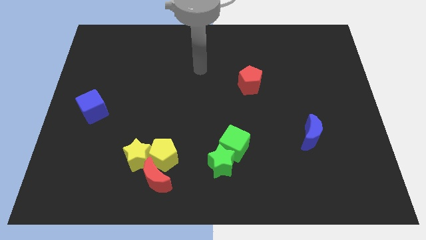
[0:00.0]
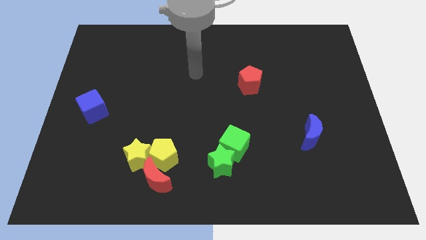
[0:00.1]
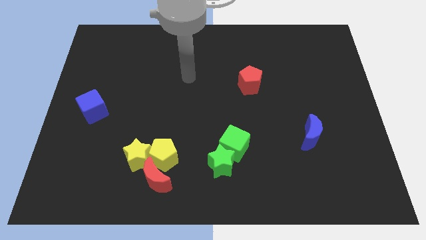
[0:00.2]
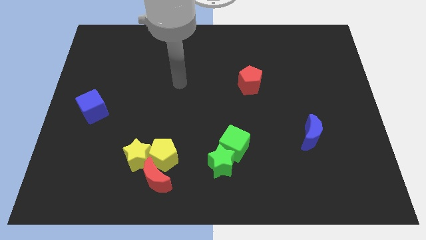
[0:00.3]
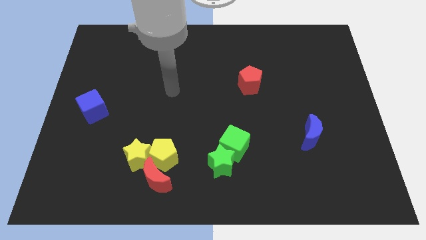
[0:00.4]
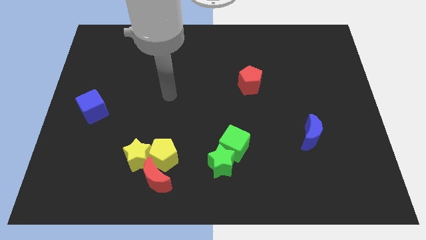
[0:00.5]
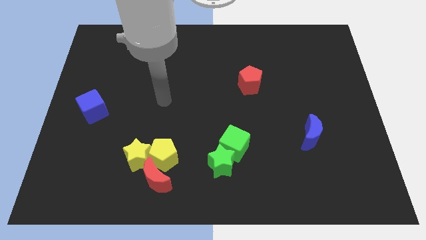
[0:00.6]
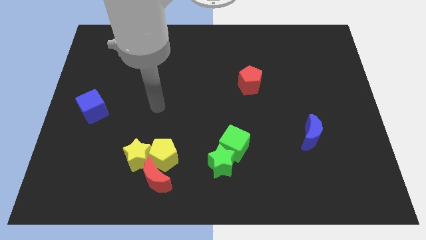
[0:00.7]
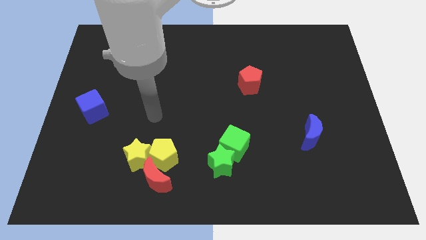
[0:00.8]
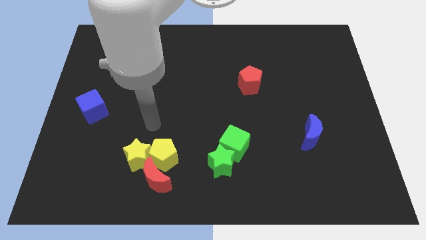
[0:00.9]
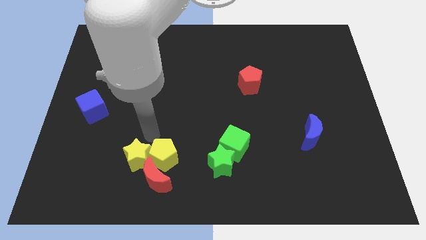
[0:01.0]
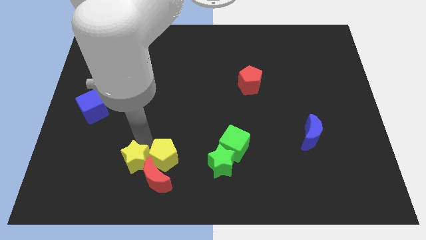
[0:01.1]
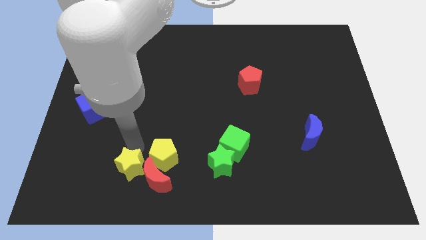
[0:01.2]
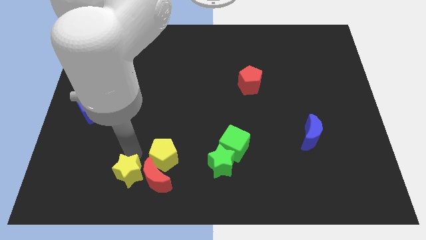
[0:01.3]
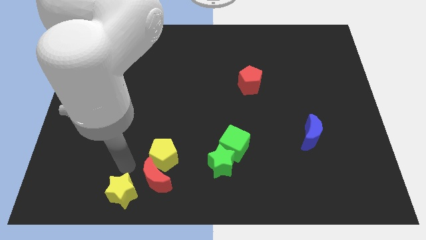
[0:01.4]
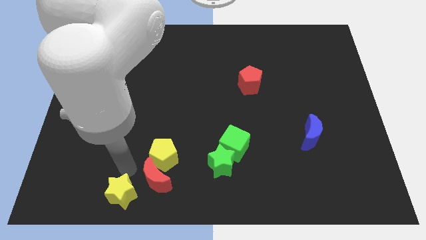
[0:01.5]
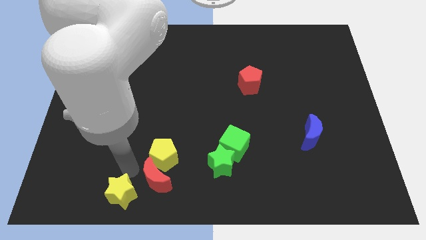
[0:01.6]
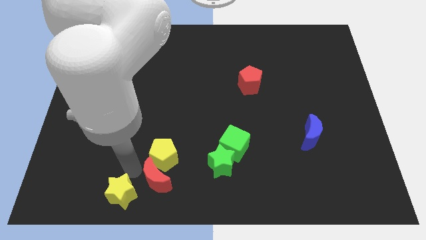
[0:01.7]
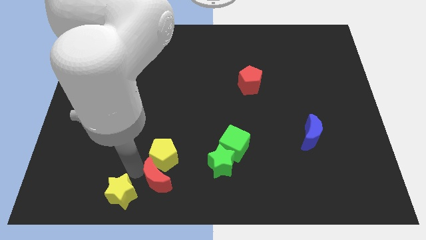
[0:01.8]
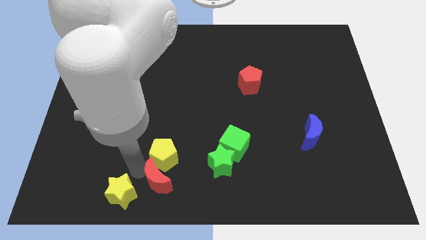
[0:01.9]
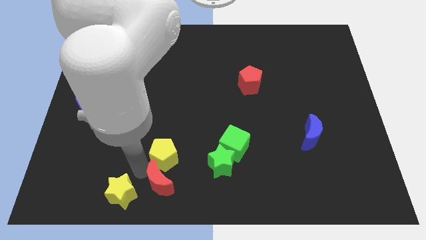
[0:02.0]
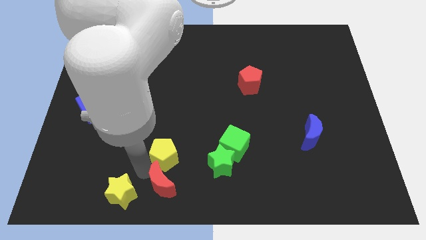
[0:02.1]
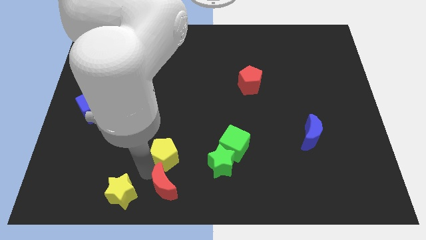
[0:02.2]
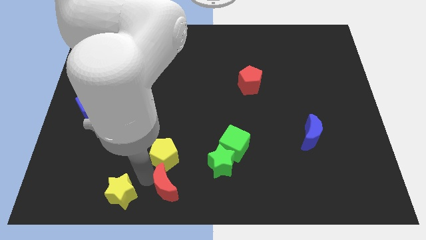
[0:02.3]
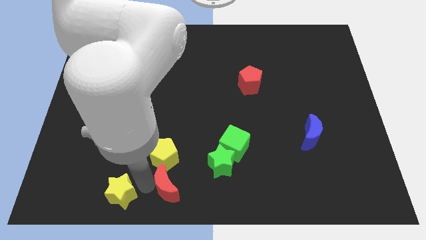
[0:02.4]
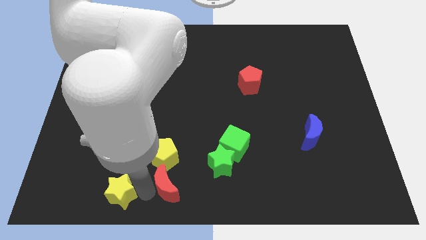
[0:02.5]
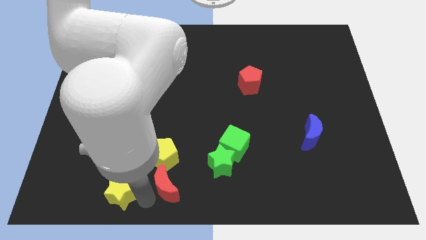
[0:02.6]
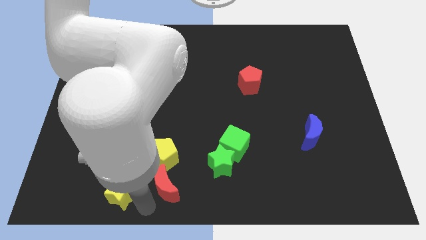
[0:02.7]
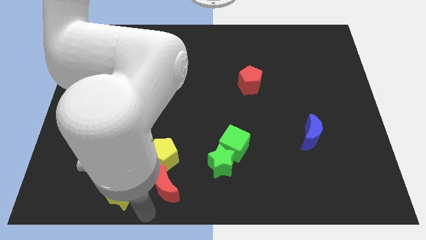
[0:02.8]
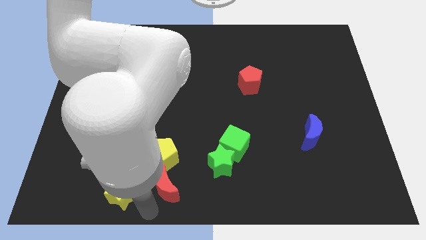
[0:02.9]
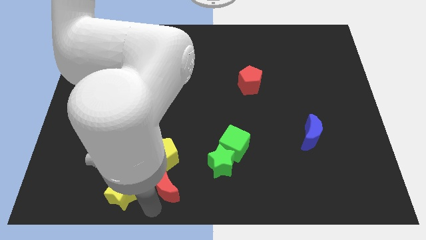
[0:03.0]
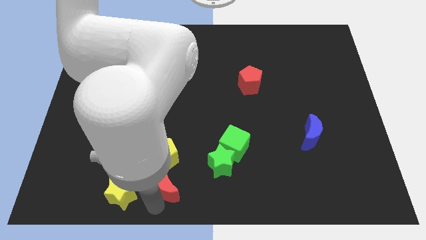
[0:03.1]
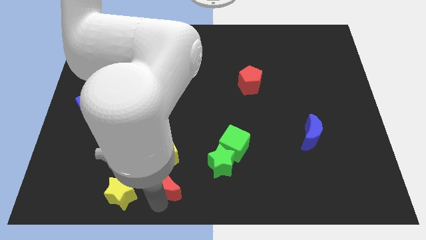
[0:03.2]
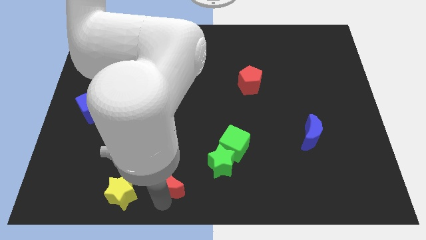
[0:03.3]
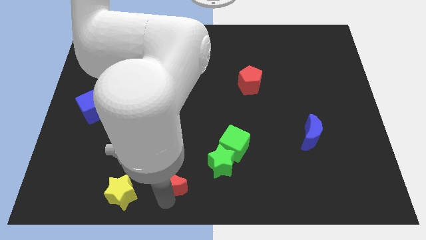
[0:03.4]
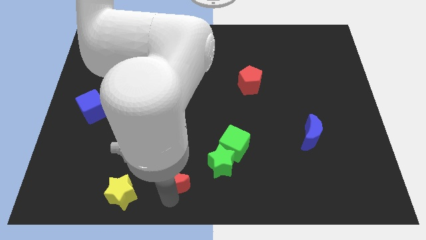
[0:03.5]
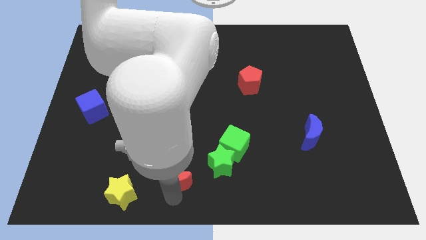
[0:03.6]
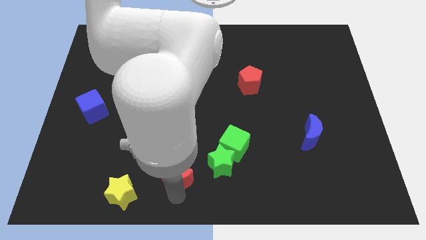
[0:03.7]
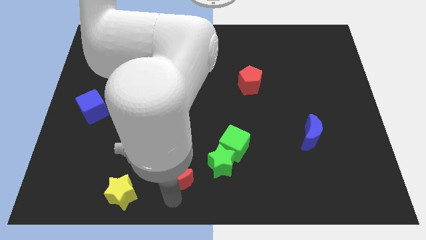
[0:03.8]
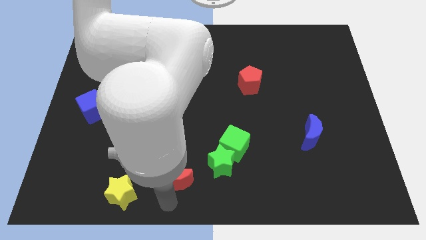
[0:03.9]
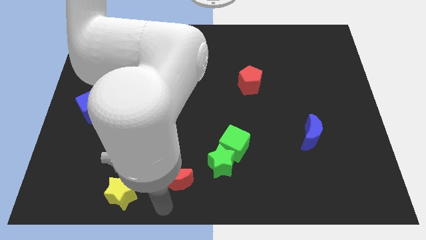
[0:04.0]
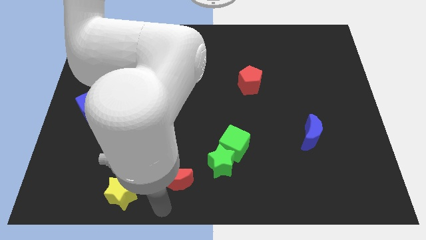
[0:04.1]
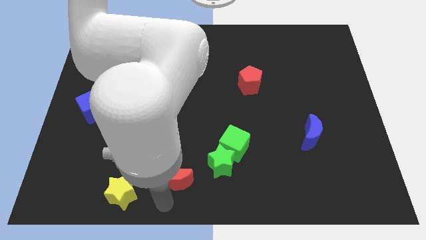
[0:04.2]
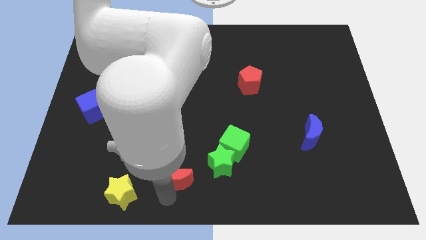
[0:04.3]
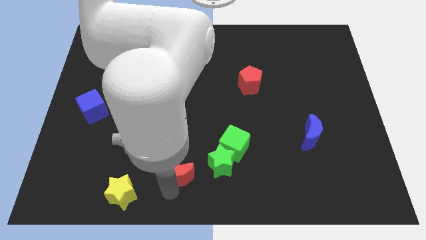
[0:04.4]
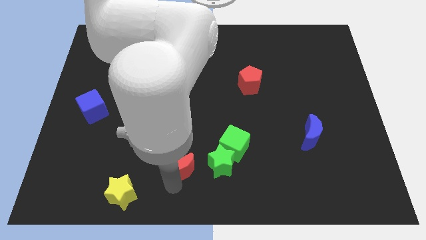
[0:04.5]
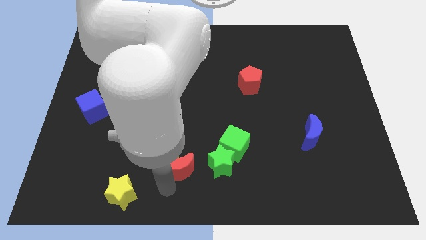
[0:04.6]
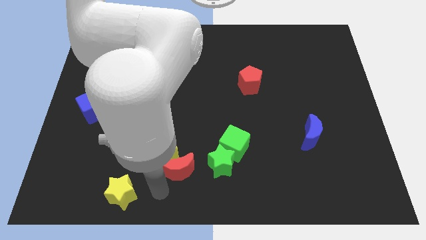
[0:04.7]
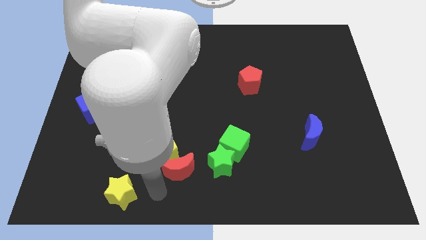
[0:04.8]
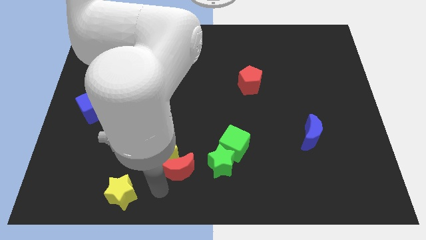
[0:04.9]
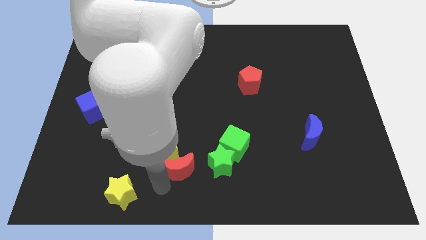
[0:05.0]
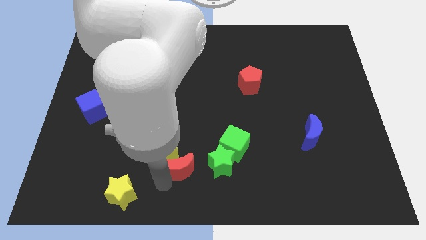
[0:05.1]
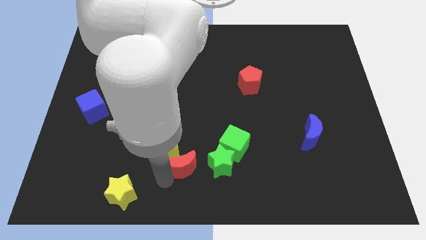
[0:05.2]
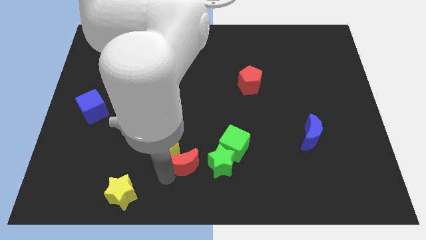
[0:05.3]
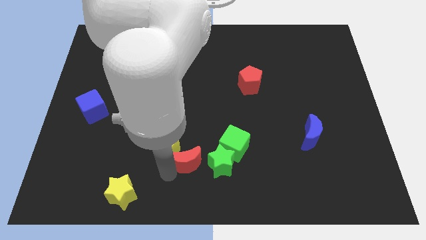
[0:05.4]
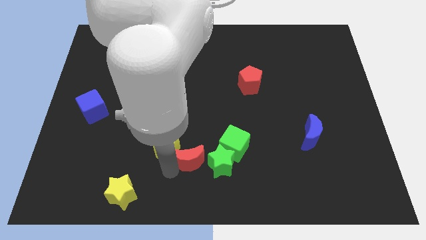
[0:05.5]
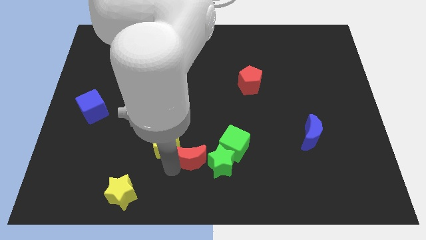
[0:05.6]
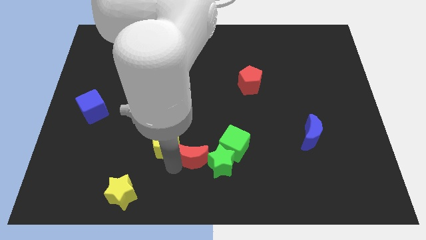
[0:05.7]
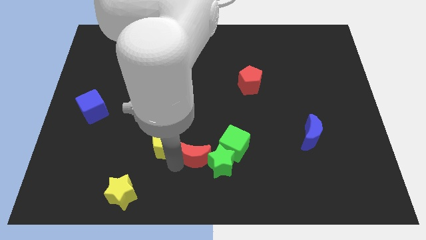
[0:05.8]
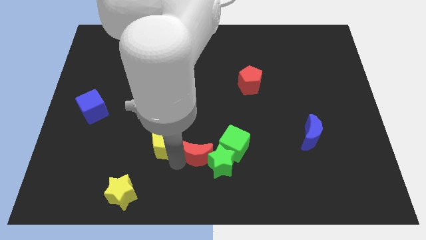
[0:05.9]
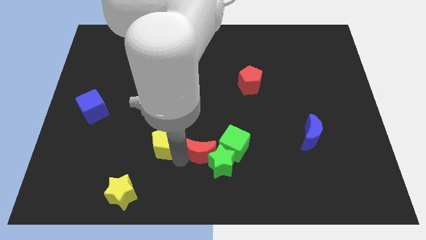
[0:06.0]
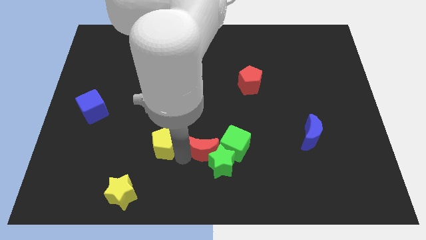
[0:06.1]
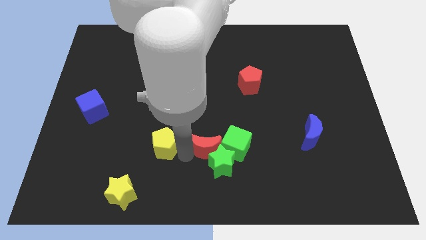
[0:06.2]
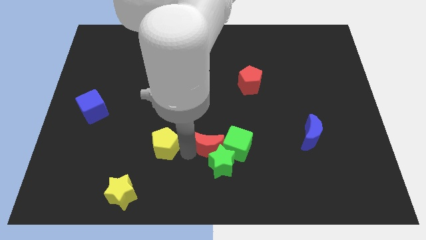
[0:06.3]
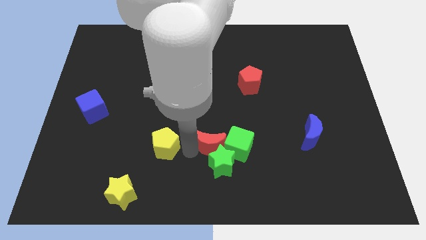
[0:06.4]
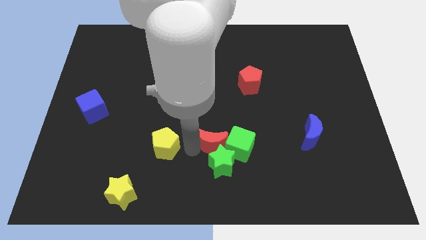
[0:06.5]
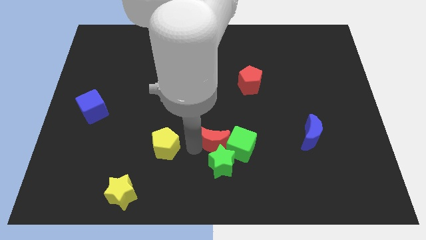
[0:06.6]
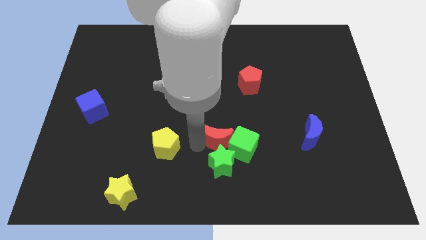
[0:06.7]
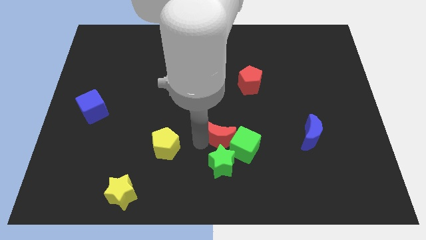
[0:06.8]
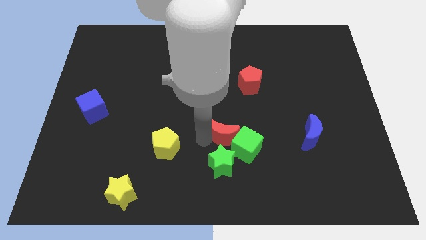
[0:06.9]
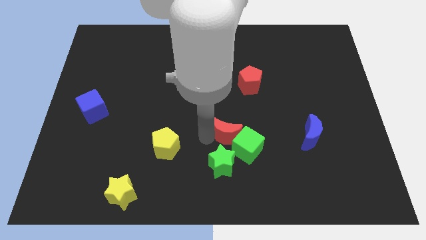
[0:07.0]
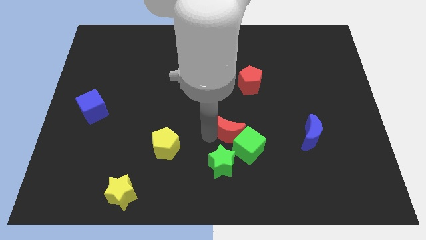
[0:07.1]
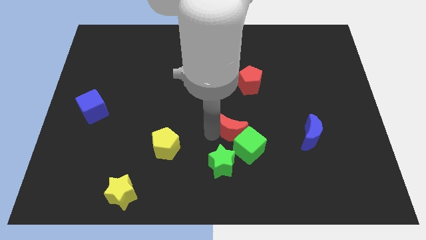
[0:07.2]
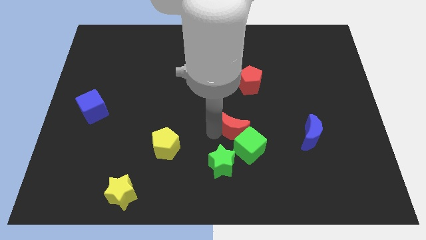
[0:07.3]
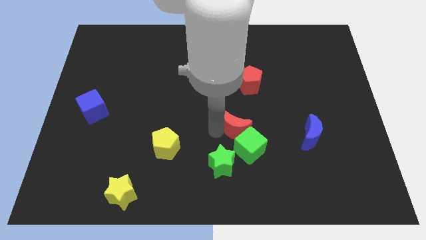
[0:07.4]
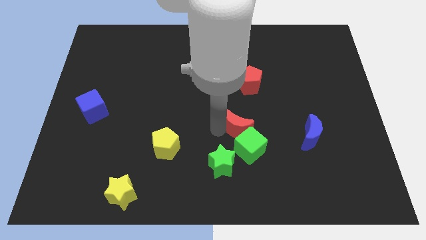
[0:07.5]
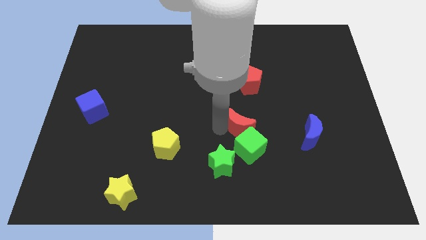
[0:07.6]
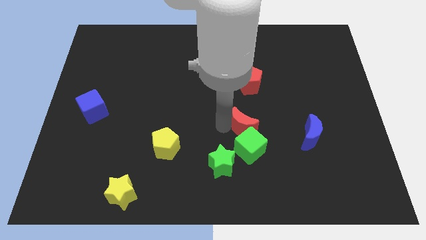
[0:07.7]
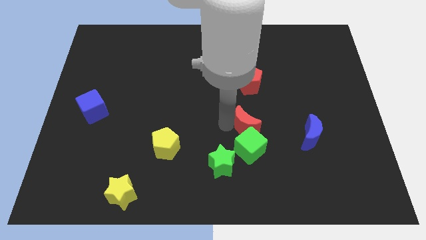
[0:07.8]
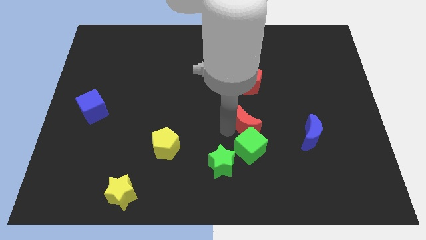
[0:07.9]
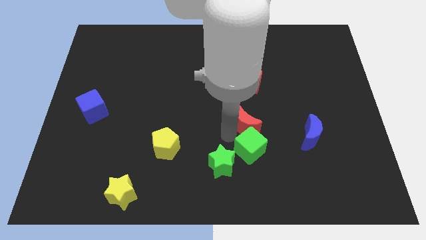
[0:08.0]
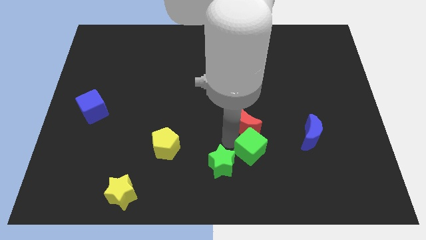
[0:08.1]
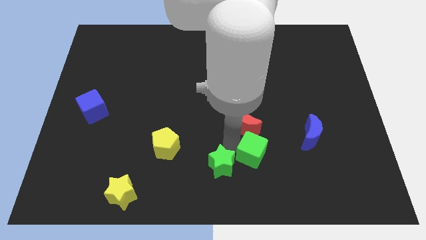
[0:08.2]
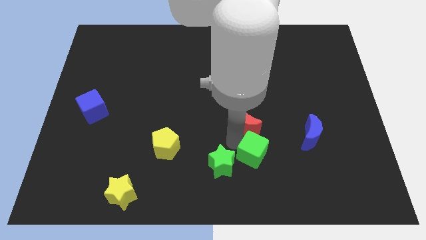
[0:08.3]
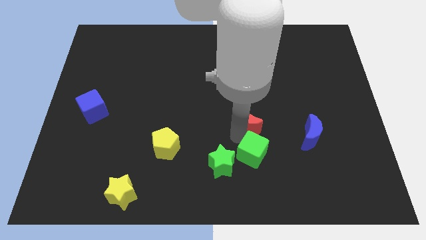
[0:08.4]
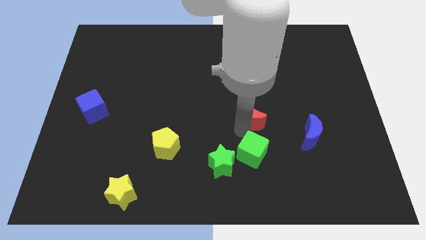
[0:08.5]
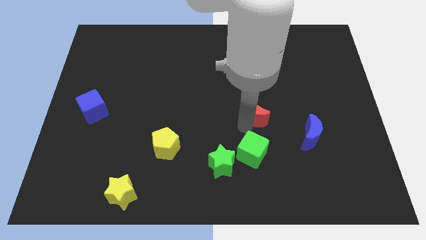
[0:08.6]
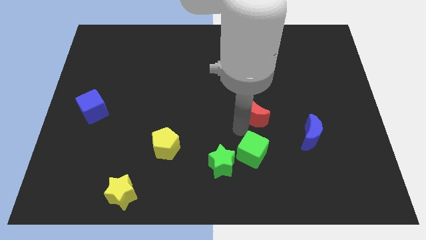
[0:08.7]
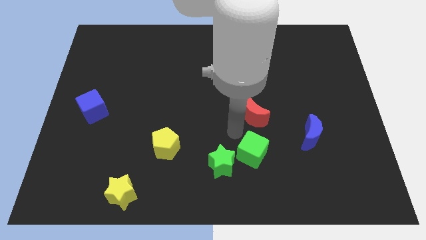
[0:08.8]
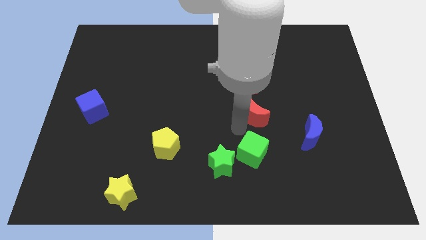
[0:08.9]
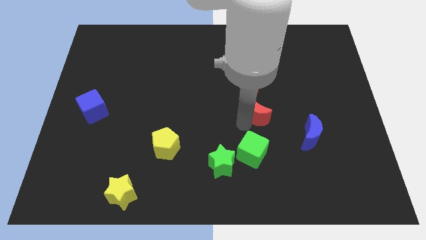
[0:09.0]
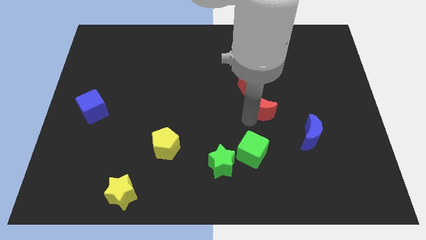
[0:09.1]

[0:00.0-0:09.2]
move the red moon to the bottom right side of the red pentagon
